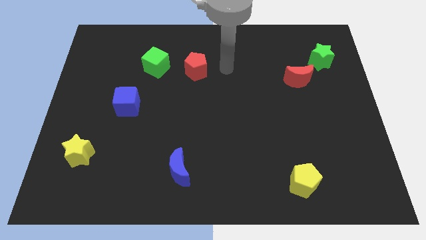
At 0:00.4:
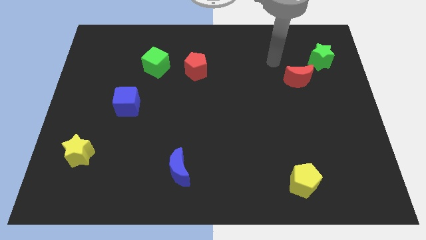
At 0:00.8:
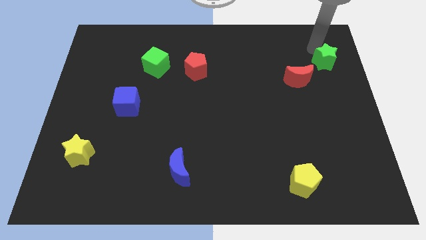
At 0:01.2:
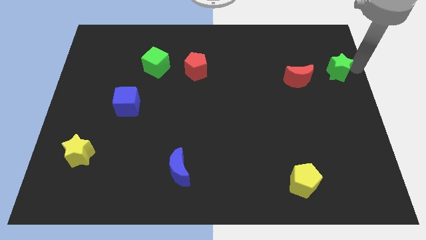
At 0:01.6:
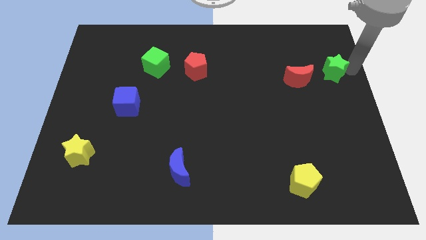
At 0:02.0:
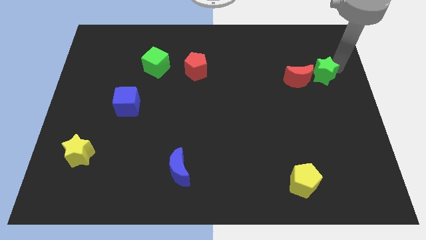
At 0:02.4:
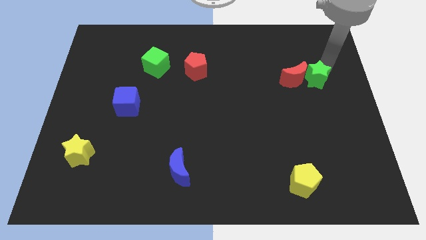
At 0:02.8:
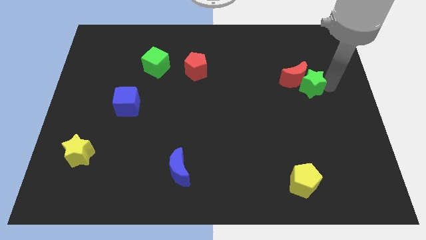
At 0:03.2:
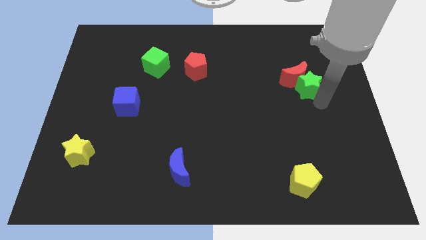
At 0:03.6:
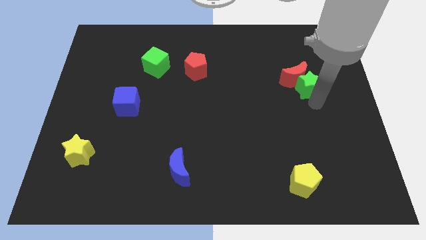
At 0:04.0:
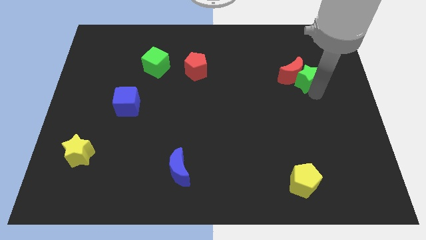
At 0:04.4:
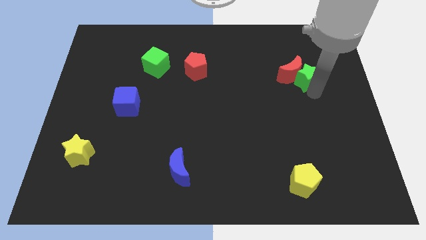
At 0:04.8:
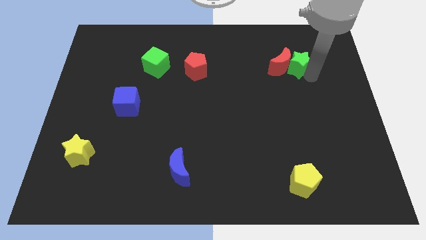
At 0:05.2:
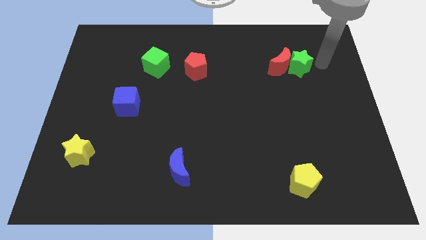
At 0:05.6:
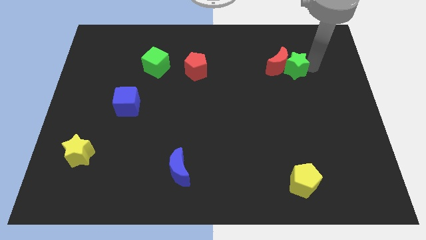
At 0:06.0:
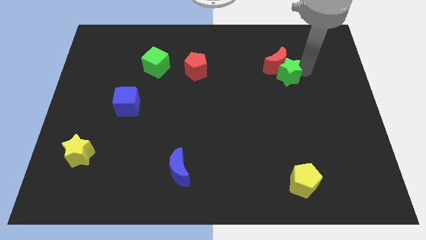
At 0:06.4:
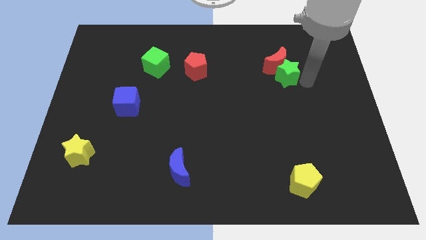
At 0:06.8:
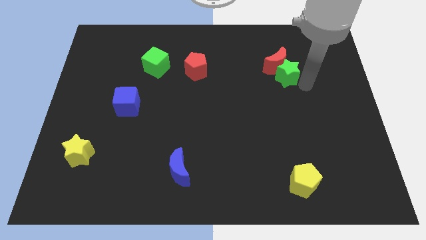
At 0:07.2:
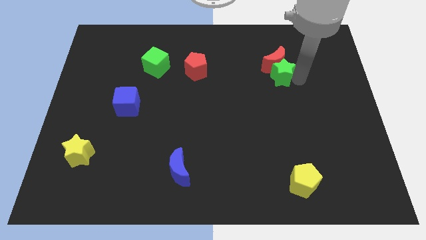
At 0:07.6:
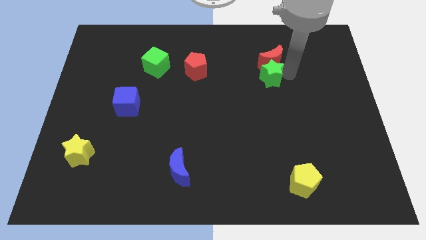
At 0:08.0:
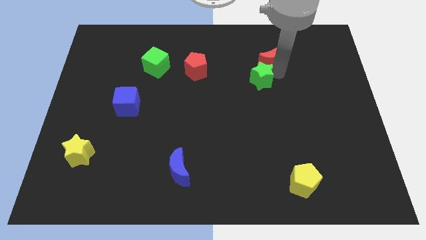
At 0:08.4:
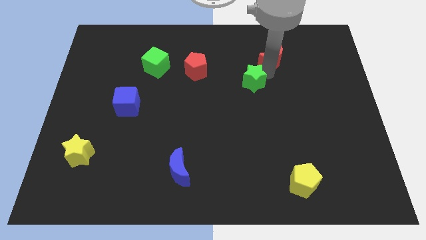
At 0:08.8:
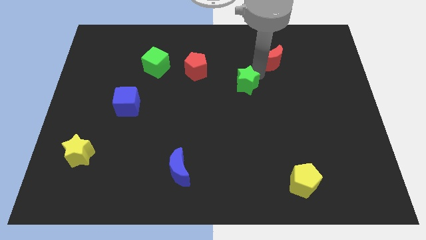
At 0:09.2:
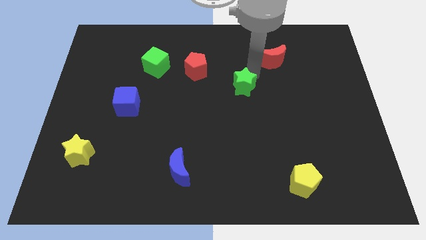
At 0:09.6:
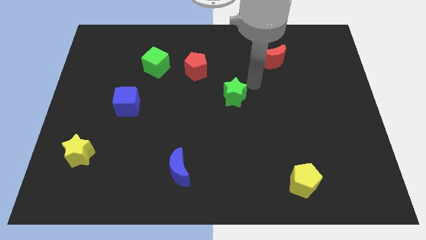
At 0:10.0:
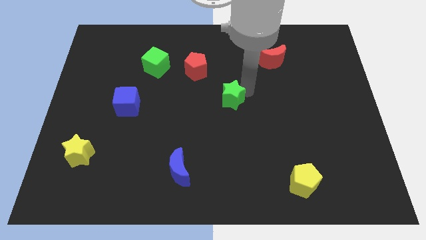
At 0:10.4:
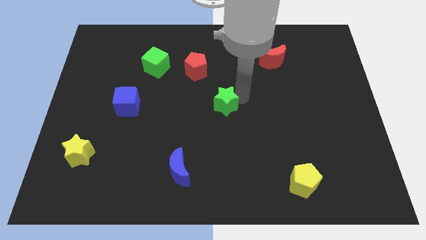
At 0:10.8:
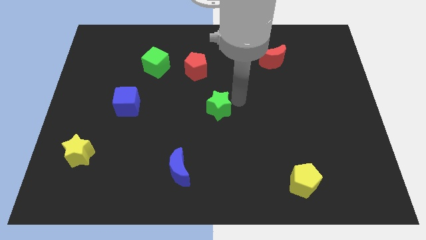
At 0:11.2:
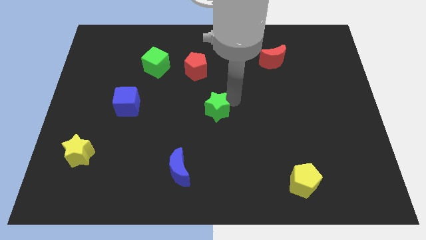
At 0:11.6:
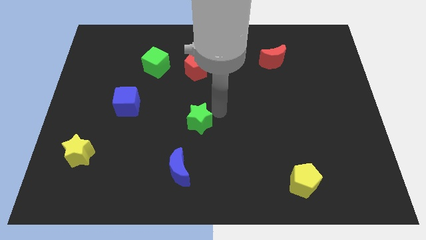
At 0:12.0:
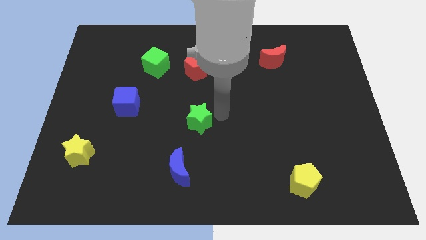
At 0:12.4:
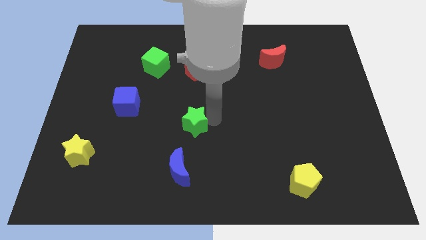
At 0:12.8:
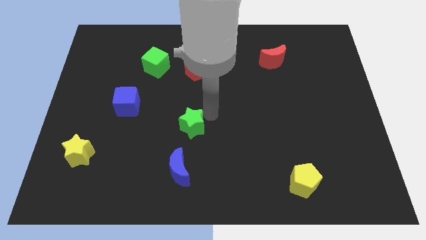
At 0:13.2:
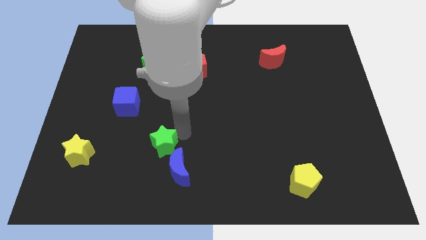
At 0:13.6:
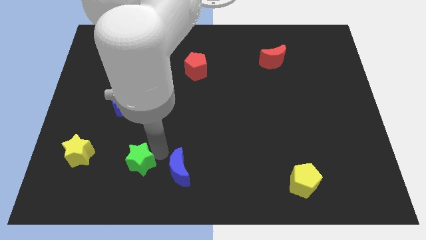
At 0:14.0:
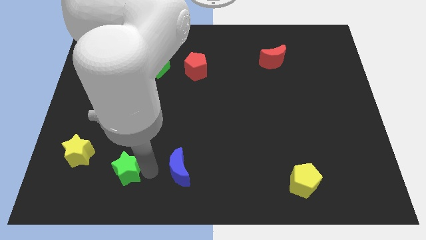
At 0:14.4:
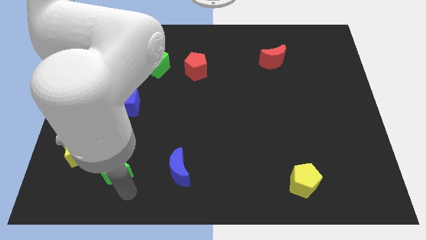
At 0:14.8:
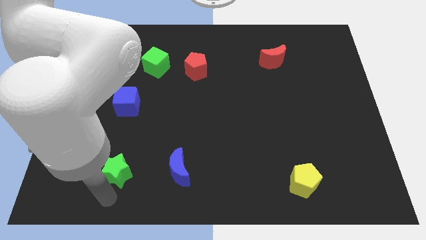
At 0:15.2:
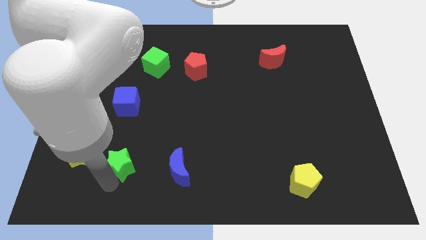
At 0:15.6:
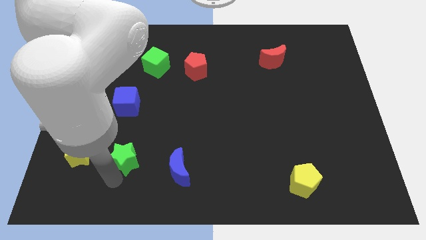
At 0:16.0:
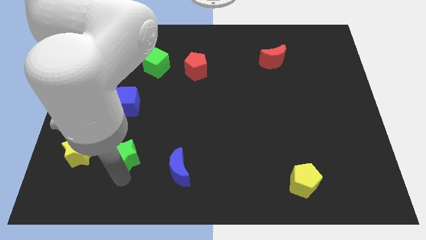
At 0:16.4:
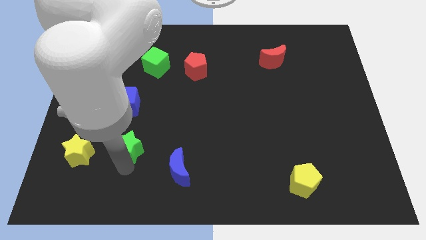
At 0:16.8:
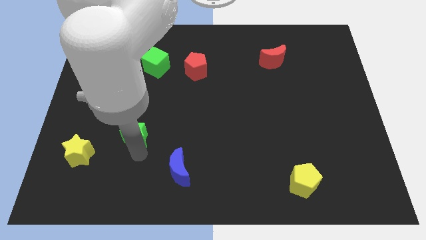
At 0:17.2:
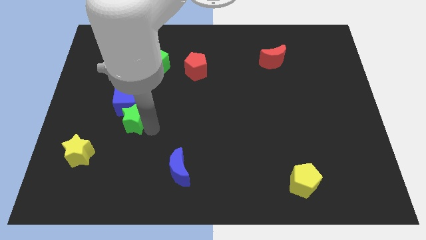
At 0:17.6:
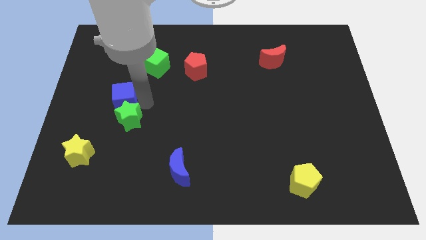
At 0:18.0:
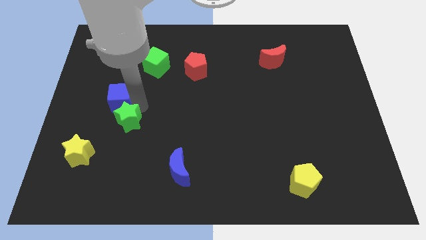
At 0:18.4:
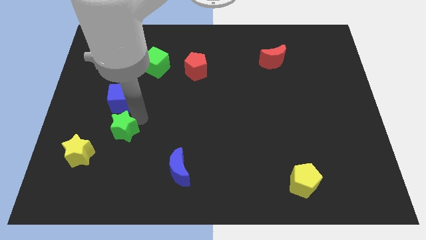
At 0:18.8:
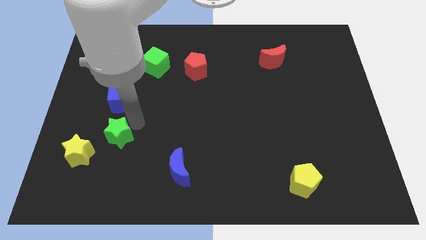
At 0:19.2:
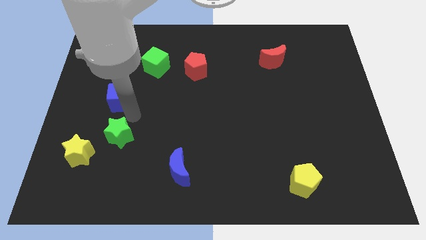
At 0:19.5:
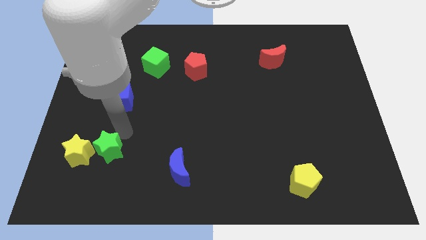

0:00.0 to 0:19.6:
put the green star to the yellow star

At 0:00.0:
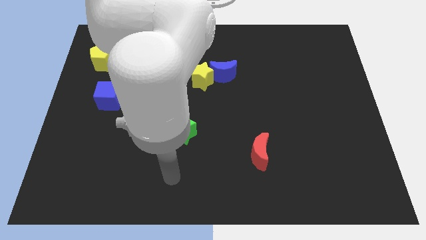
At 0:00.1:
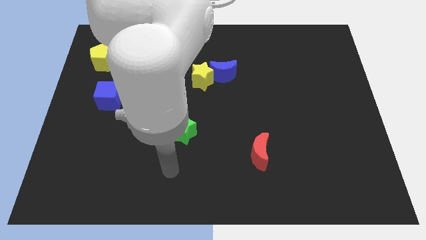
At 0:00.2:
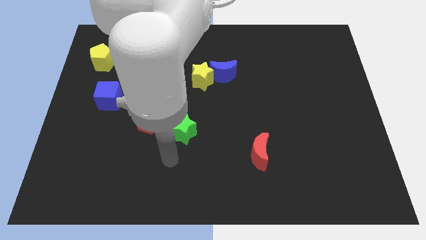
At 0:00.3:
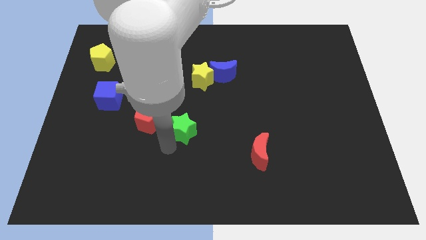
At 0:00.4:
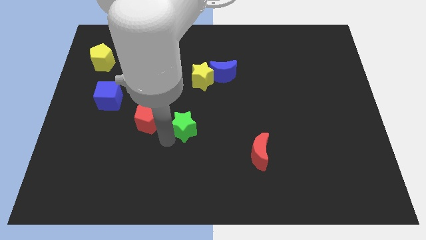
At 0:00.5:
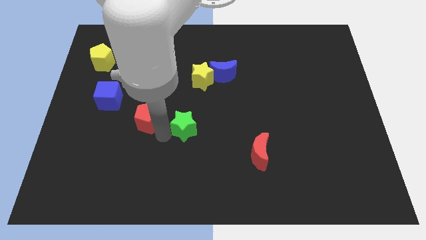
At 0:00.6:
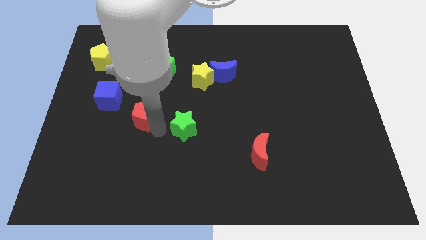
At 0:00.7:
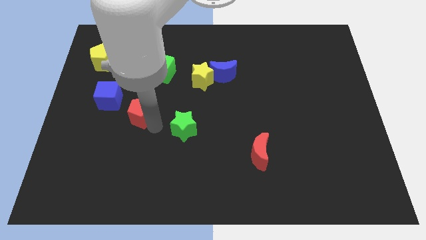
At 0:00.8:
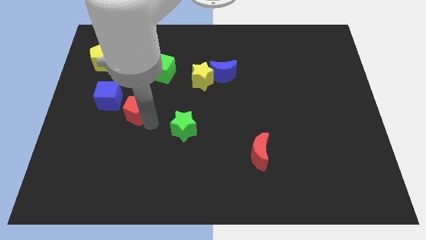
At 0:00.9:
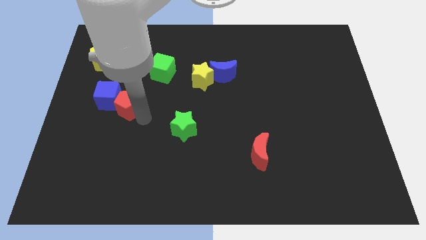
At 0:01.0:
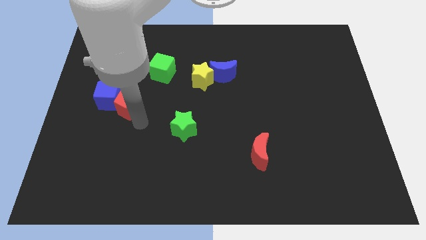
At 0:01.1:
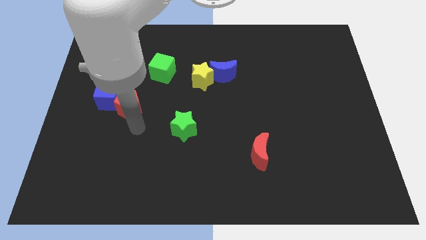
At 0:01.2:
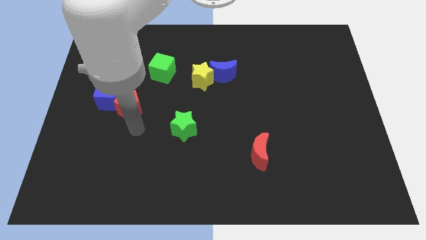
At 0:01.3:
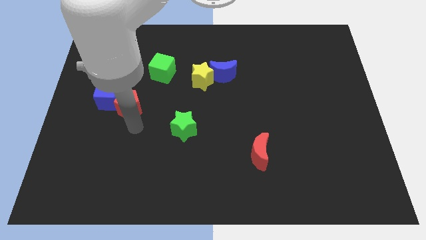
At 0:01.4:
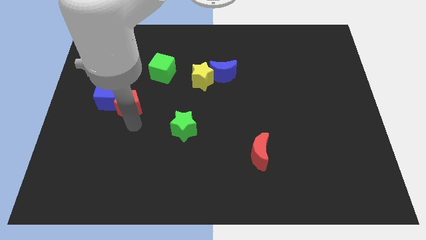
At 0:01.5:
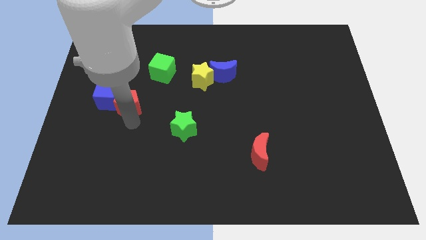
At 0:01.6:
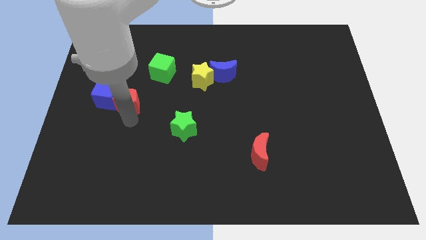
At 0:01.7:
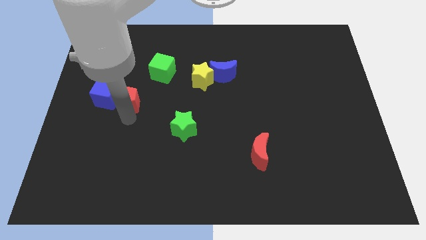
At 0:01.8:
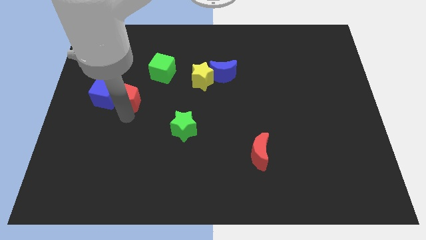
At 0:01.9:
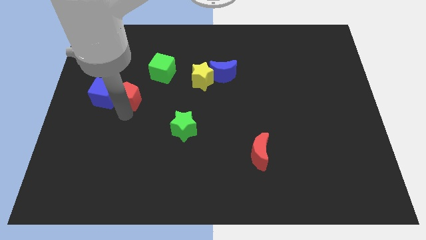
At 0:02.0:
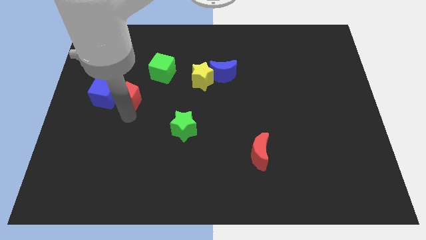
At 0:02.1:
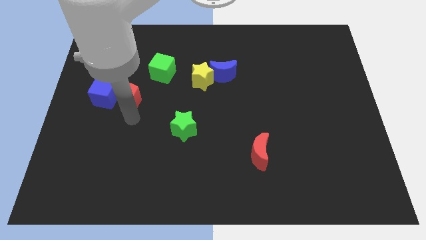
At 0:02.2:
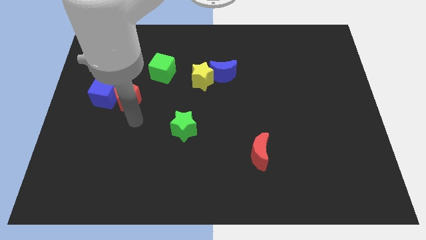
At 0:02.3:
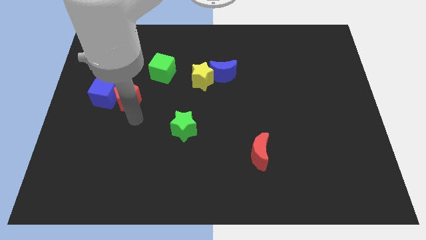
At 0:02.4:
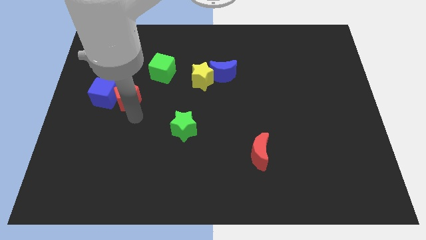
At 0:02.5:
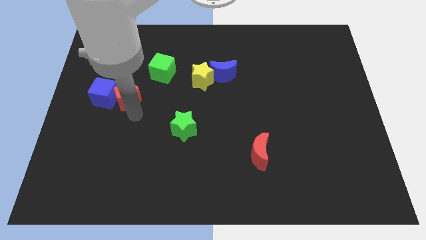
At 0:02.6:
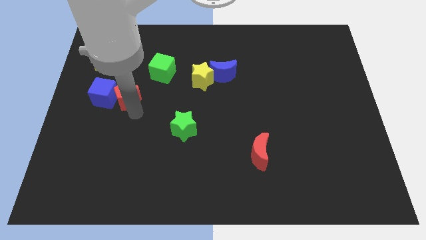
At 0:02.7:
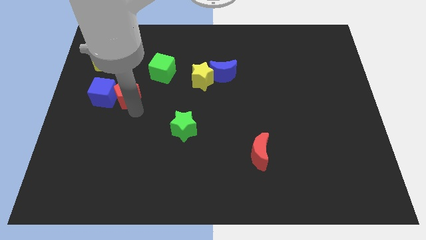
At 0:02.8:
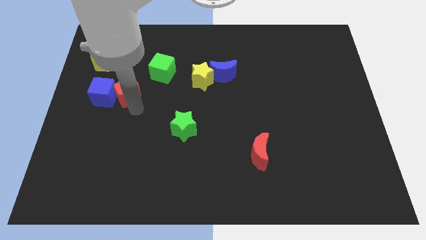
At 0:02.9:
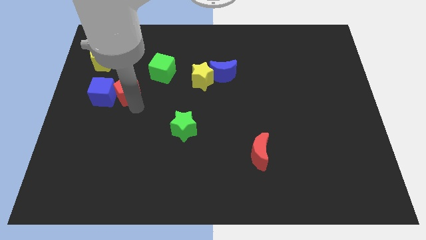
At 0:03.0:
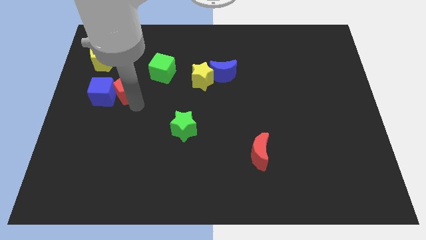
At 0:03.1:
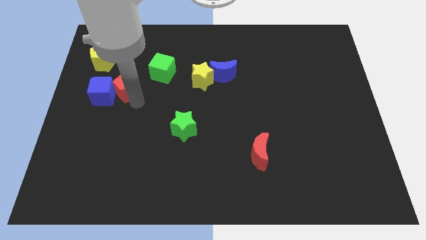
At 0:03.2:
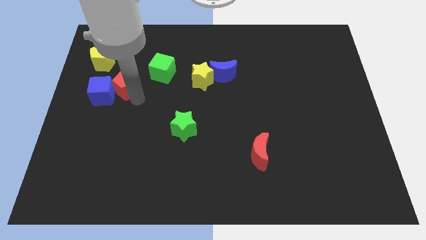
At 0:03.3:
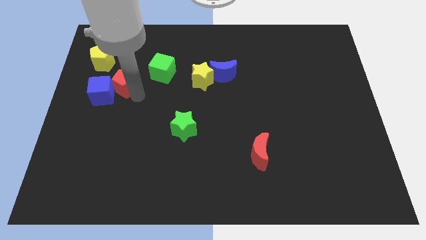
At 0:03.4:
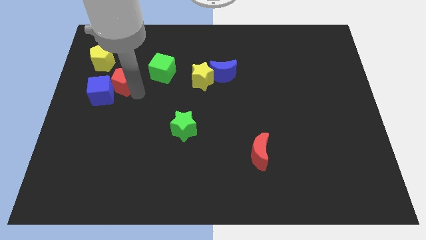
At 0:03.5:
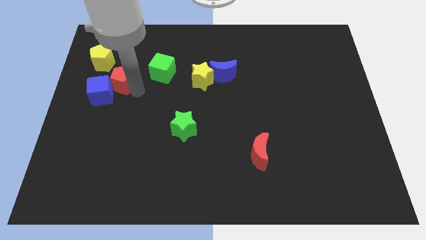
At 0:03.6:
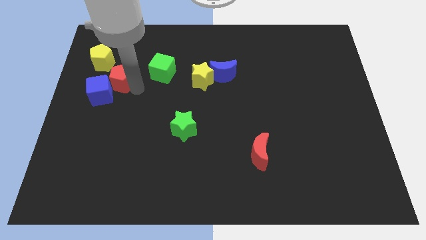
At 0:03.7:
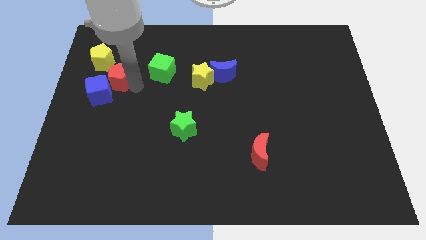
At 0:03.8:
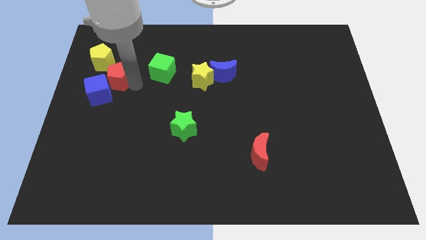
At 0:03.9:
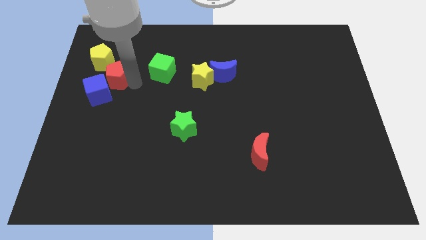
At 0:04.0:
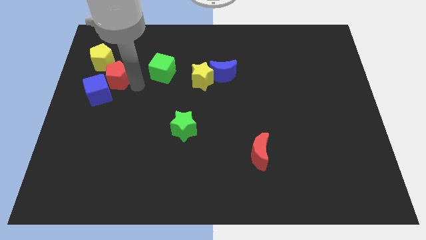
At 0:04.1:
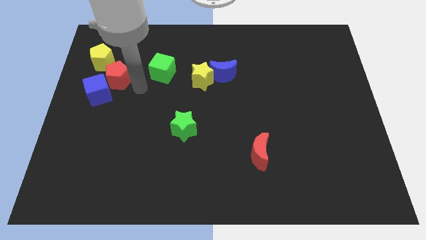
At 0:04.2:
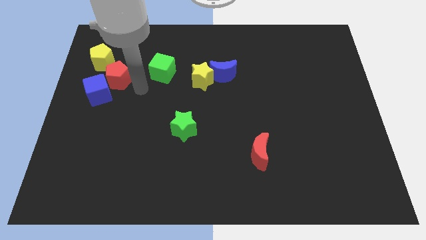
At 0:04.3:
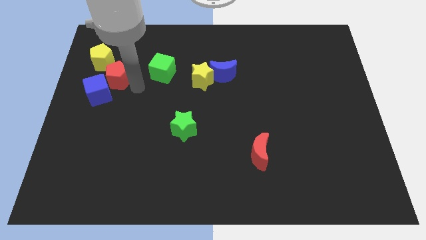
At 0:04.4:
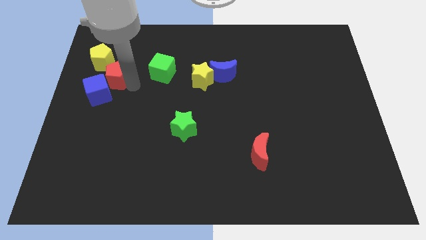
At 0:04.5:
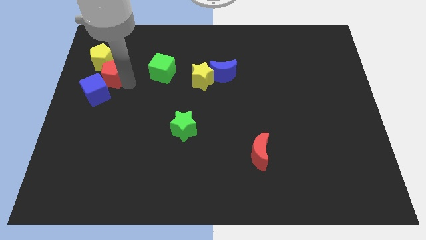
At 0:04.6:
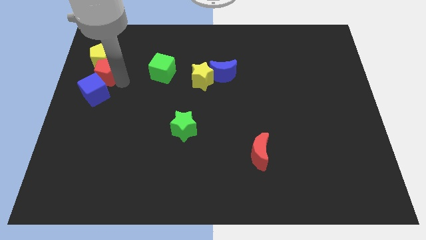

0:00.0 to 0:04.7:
put the red pentagon towards the yellow pentagon
